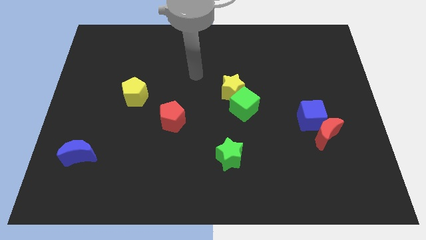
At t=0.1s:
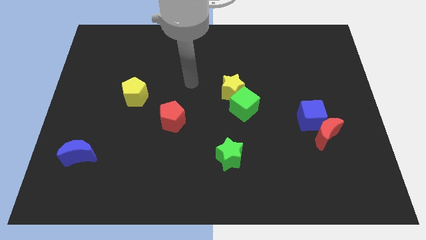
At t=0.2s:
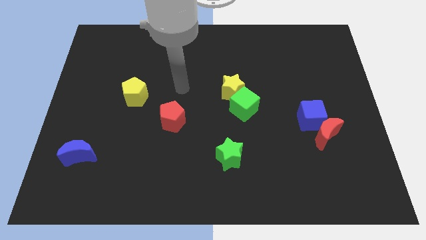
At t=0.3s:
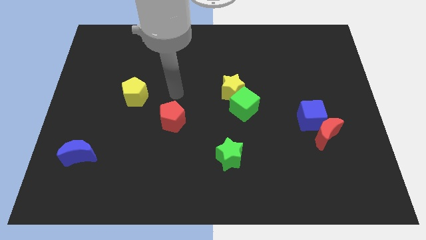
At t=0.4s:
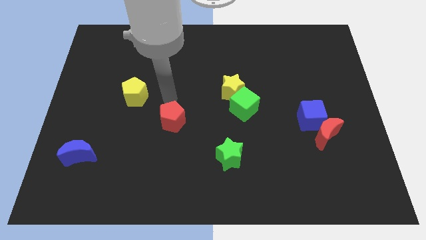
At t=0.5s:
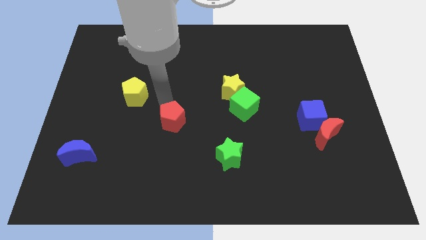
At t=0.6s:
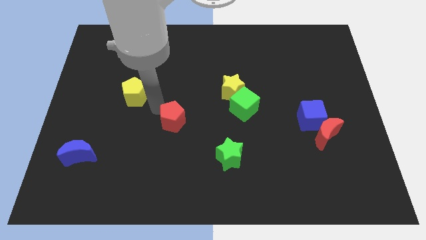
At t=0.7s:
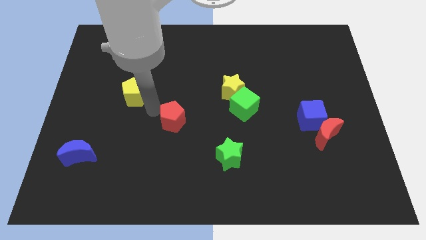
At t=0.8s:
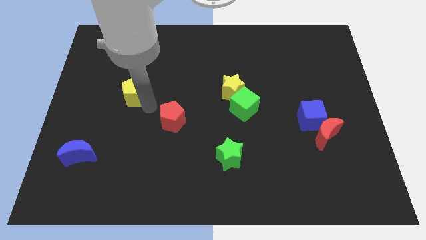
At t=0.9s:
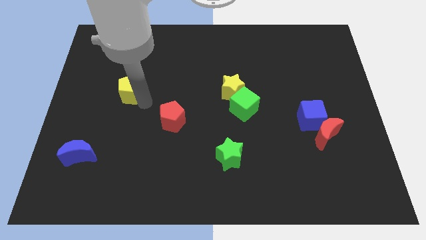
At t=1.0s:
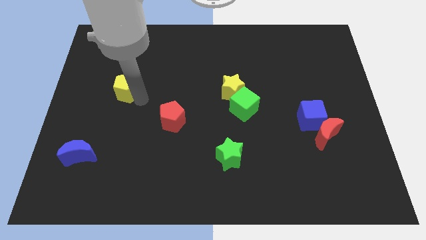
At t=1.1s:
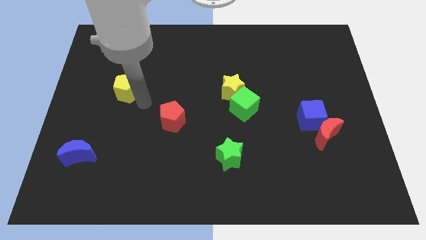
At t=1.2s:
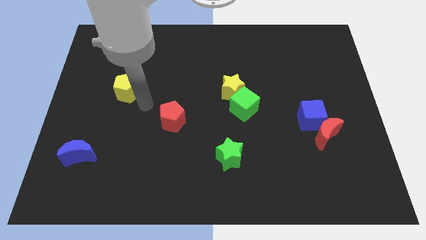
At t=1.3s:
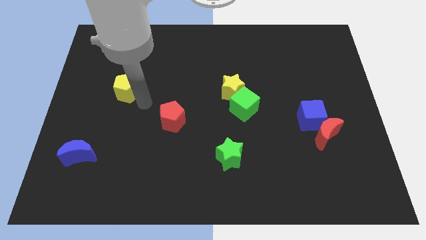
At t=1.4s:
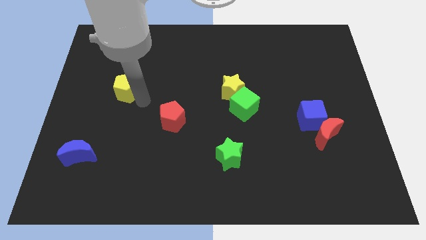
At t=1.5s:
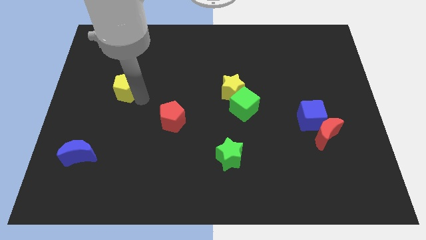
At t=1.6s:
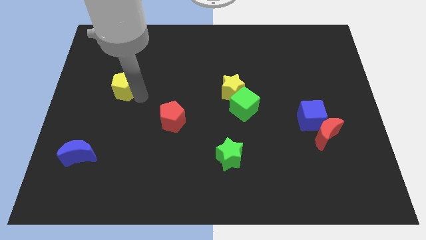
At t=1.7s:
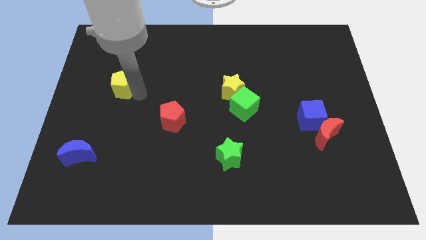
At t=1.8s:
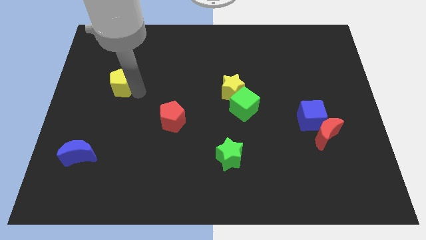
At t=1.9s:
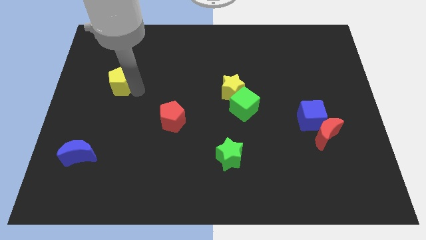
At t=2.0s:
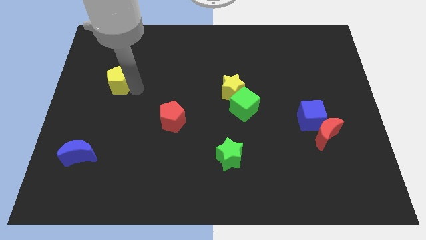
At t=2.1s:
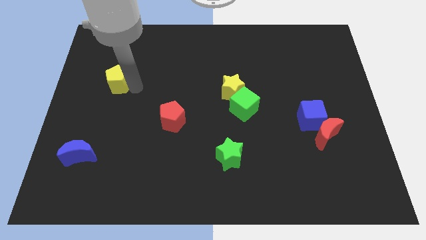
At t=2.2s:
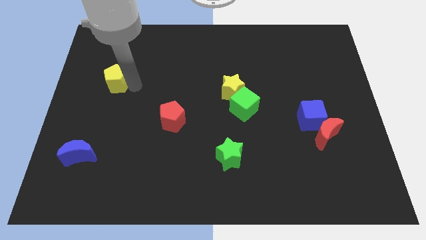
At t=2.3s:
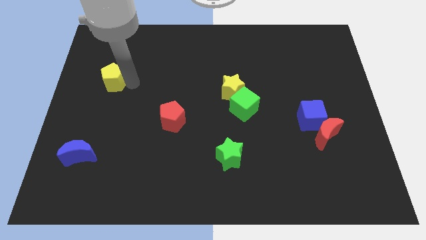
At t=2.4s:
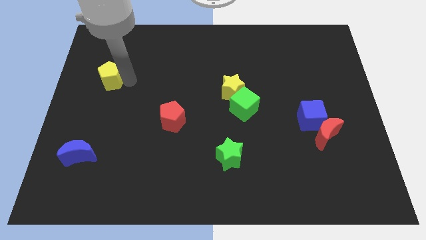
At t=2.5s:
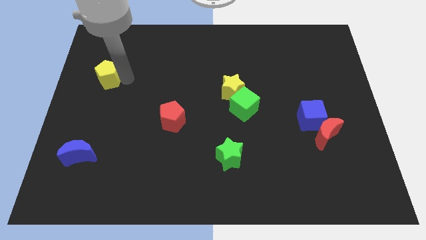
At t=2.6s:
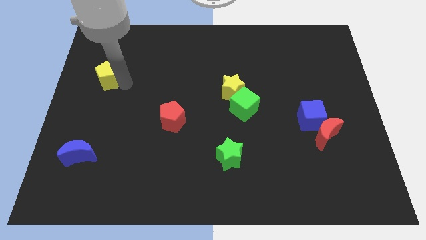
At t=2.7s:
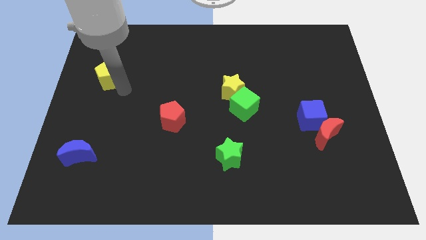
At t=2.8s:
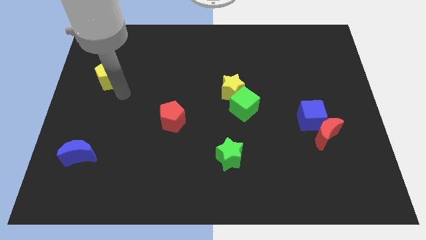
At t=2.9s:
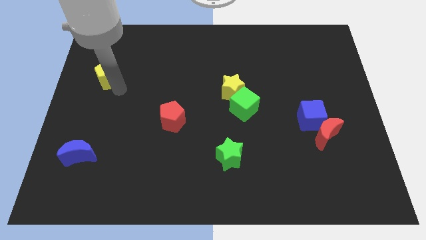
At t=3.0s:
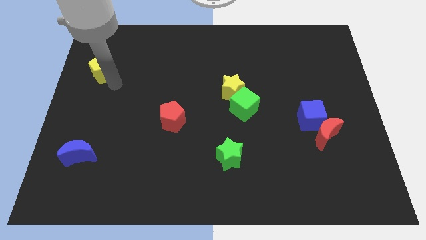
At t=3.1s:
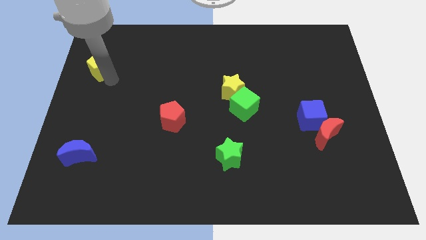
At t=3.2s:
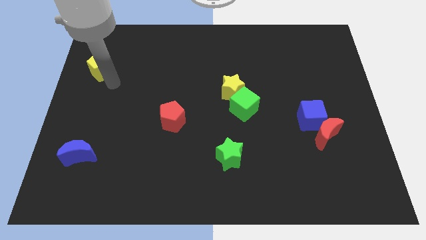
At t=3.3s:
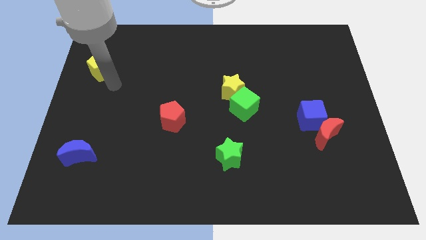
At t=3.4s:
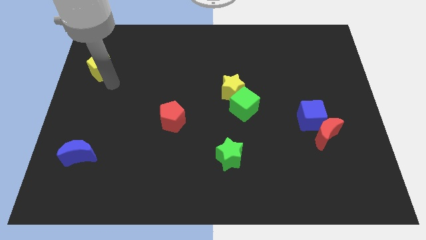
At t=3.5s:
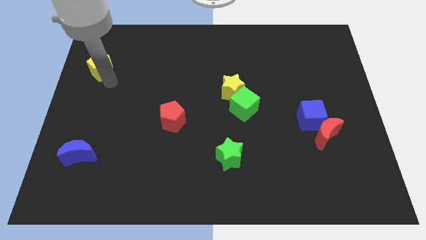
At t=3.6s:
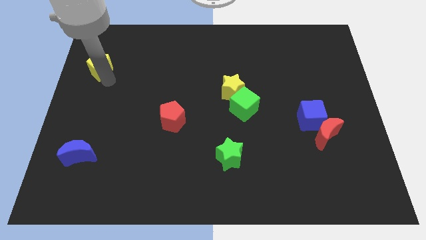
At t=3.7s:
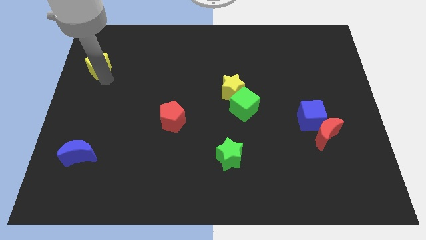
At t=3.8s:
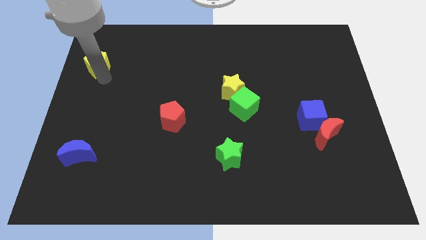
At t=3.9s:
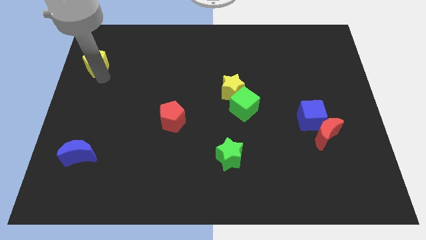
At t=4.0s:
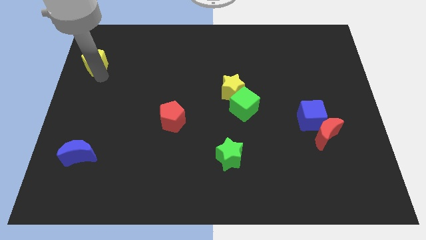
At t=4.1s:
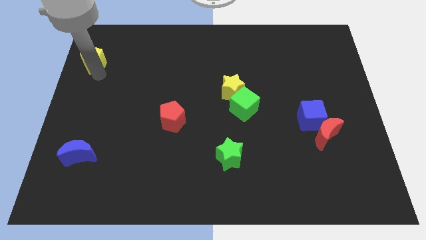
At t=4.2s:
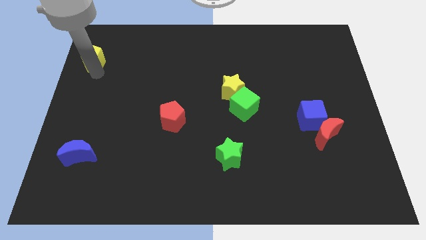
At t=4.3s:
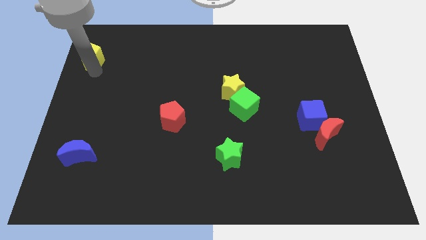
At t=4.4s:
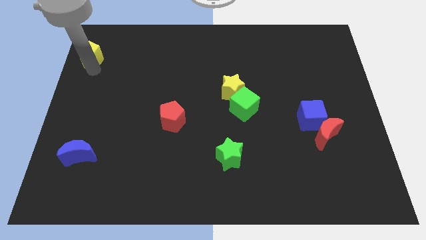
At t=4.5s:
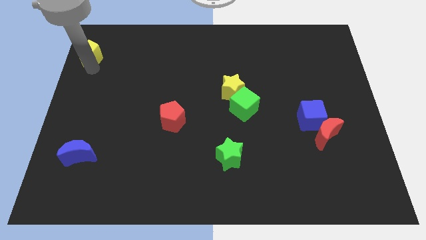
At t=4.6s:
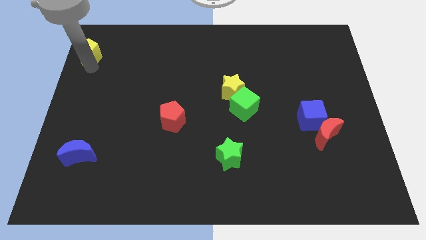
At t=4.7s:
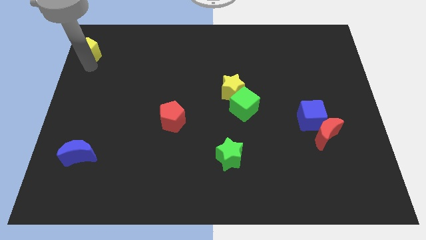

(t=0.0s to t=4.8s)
push the yellow pentagon to the top left

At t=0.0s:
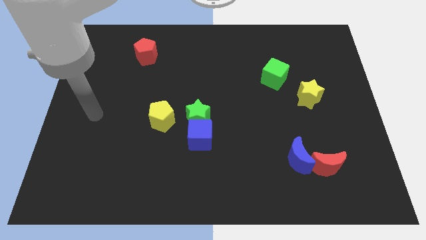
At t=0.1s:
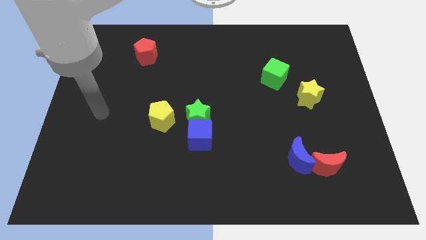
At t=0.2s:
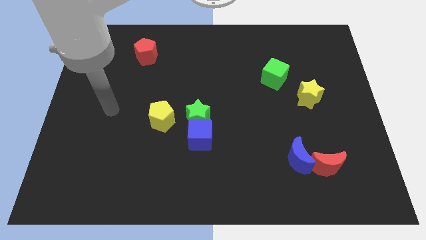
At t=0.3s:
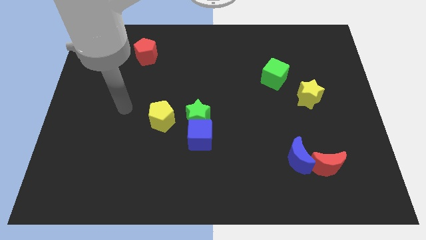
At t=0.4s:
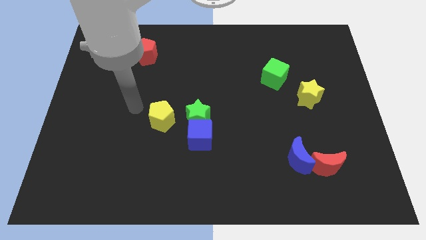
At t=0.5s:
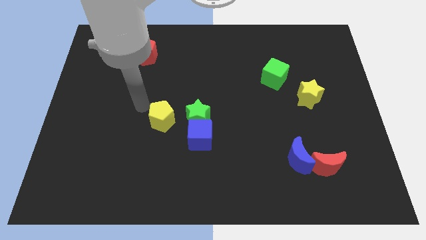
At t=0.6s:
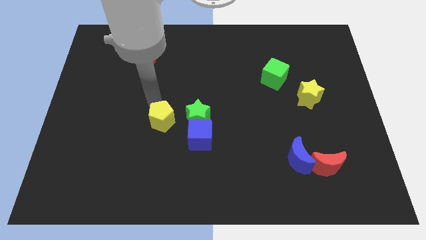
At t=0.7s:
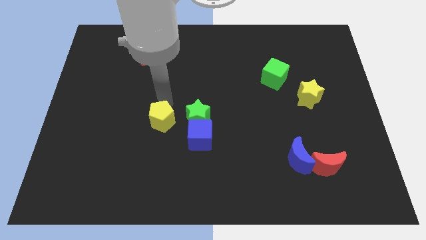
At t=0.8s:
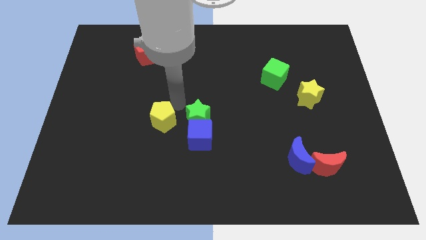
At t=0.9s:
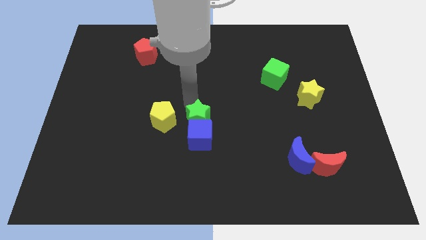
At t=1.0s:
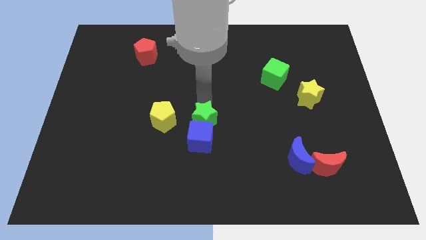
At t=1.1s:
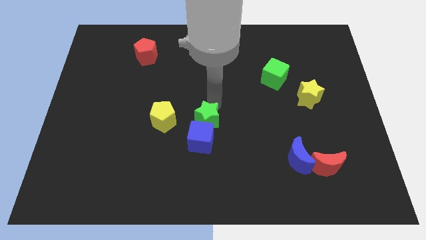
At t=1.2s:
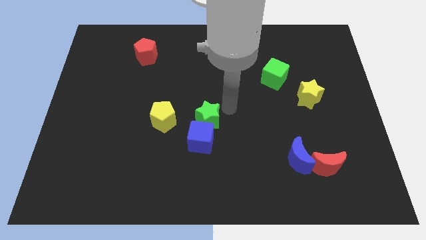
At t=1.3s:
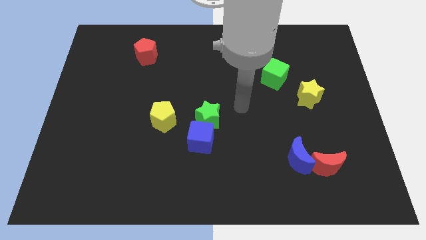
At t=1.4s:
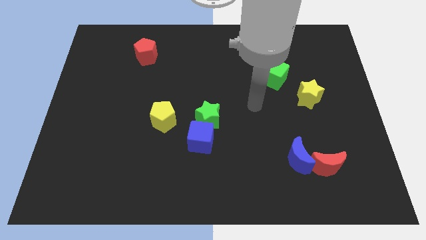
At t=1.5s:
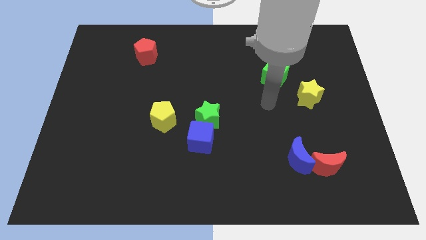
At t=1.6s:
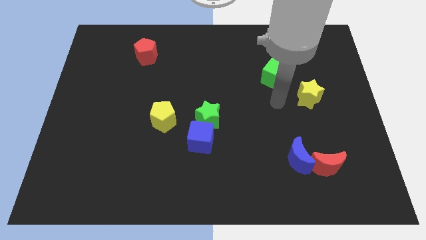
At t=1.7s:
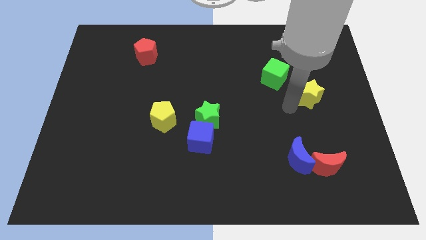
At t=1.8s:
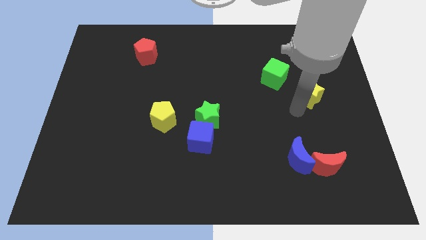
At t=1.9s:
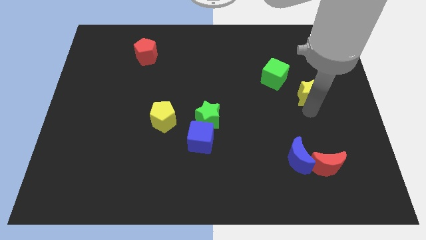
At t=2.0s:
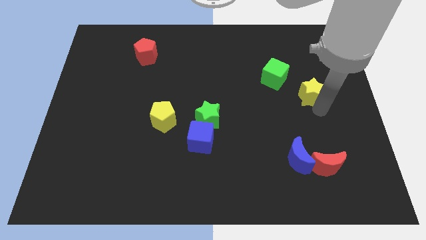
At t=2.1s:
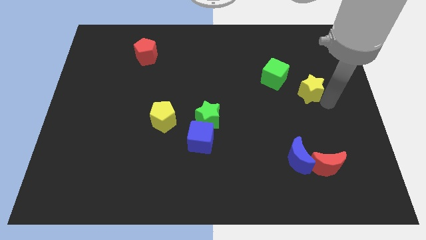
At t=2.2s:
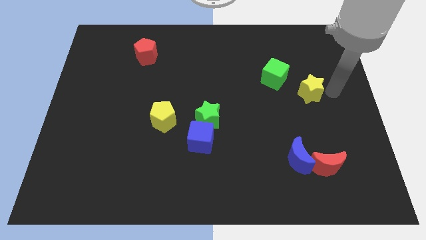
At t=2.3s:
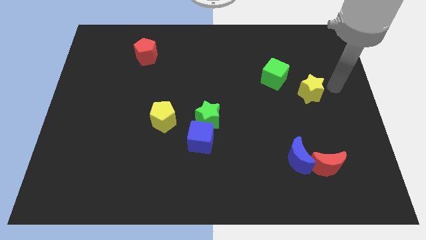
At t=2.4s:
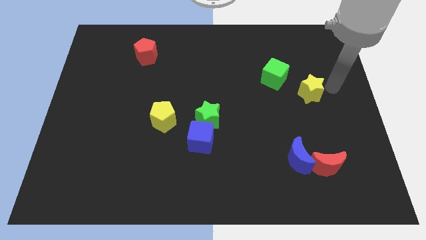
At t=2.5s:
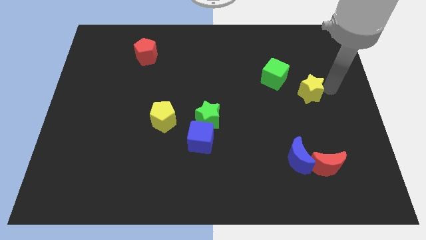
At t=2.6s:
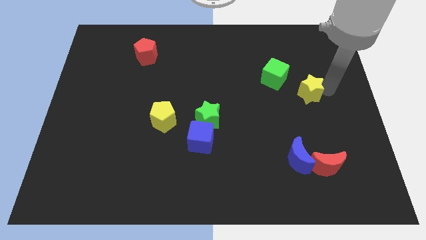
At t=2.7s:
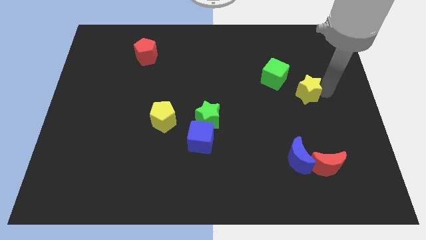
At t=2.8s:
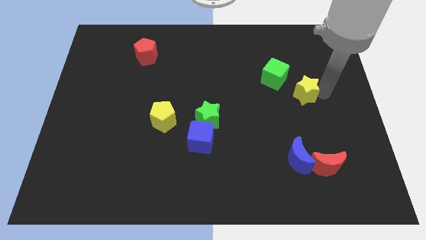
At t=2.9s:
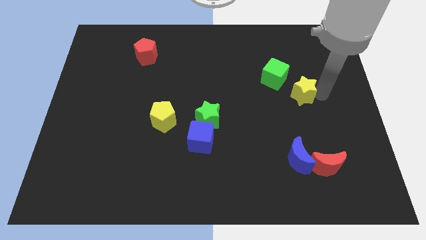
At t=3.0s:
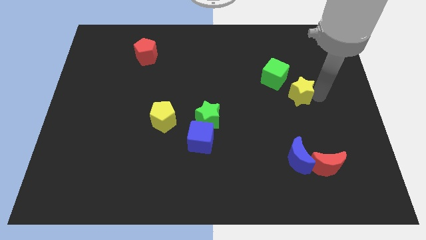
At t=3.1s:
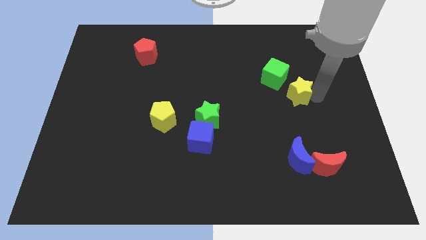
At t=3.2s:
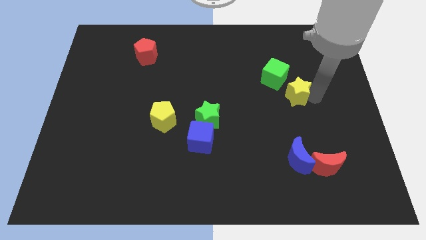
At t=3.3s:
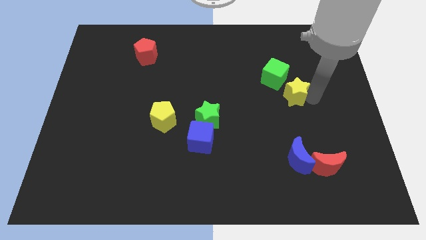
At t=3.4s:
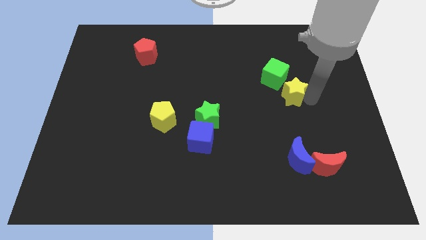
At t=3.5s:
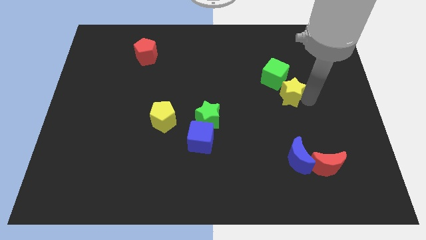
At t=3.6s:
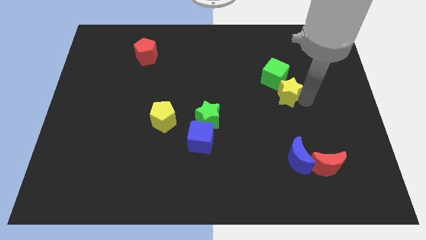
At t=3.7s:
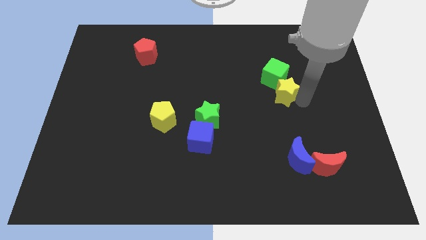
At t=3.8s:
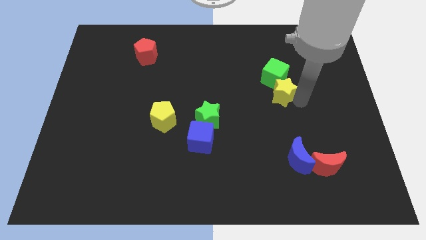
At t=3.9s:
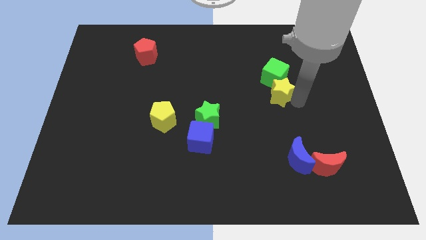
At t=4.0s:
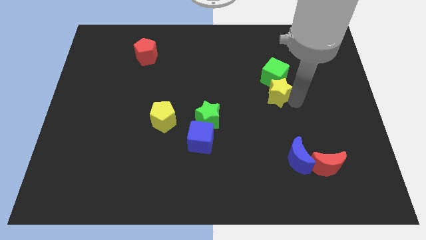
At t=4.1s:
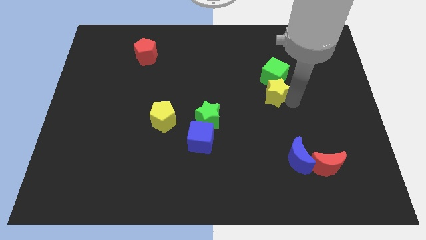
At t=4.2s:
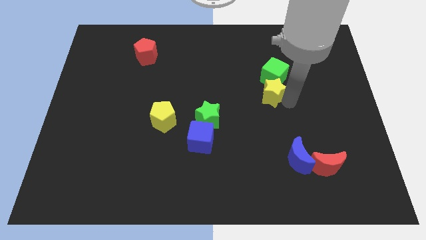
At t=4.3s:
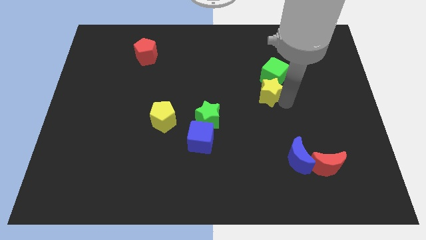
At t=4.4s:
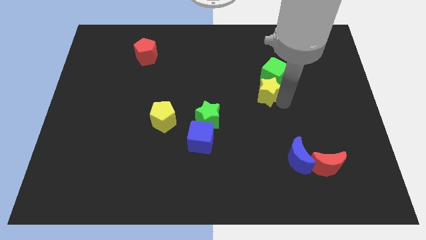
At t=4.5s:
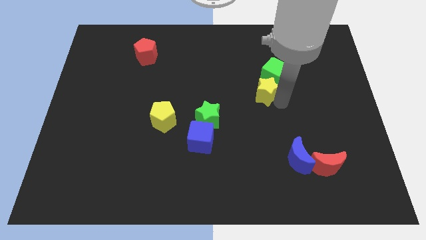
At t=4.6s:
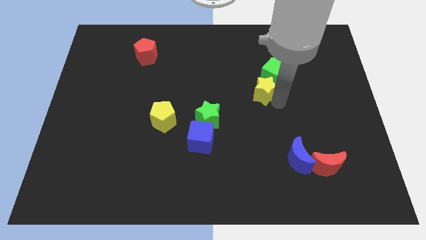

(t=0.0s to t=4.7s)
slide the yellow star to the center
